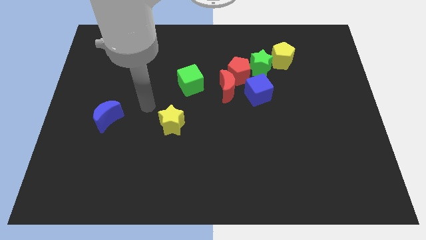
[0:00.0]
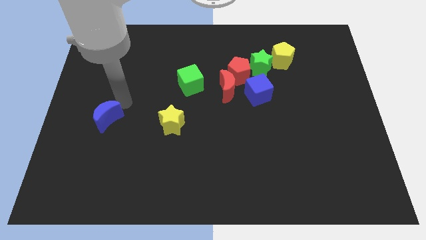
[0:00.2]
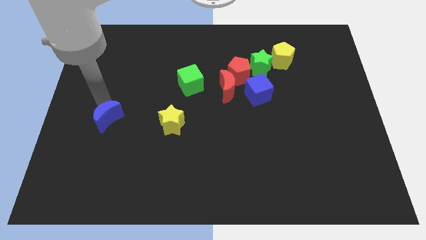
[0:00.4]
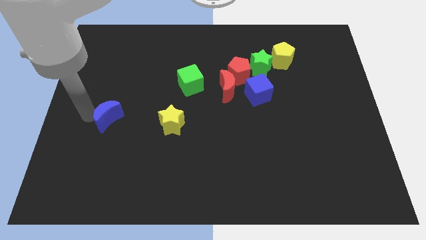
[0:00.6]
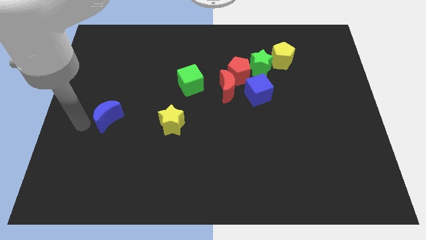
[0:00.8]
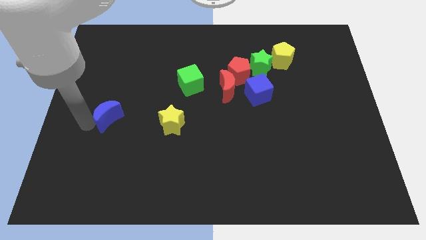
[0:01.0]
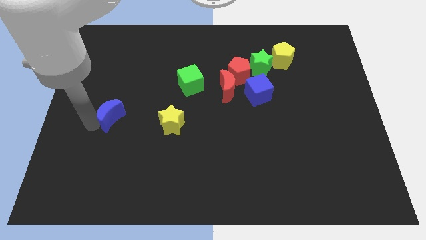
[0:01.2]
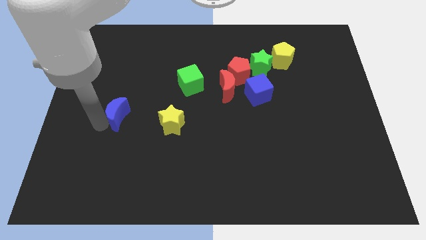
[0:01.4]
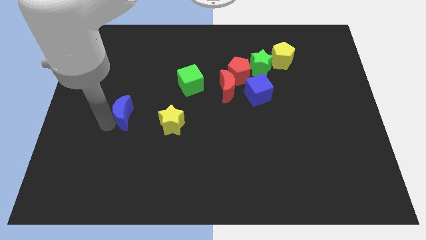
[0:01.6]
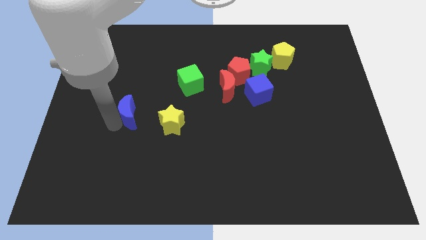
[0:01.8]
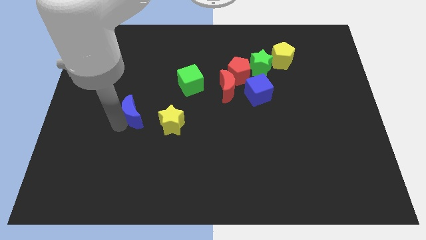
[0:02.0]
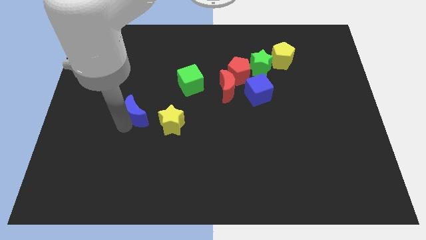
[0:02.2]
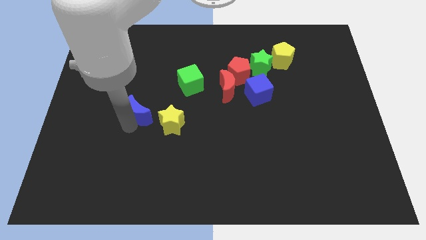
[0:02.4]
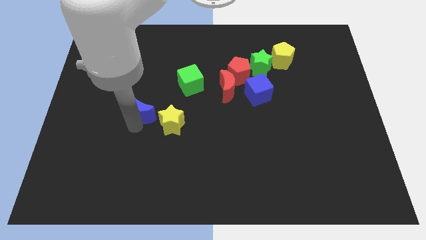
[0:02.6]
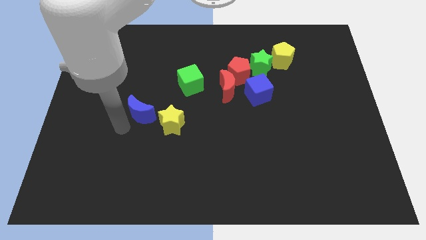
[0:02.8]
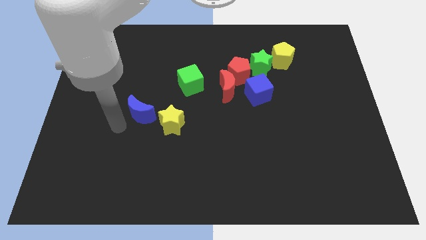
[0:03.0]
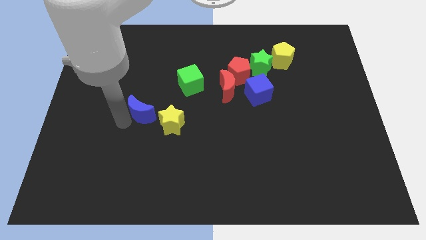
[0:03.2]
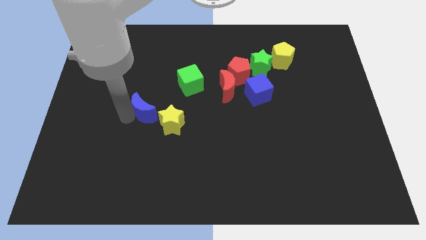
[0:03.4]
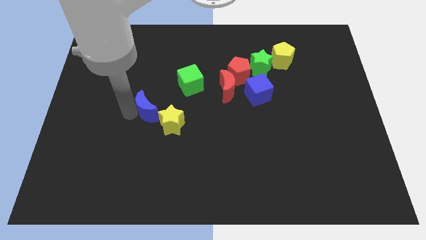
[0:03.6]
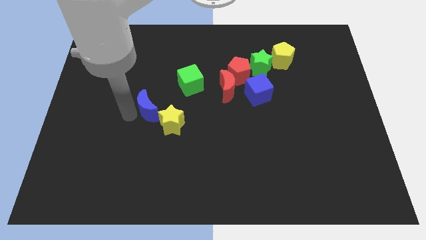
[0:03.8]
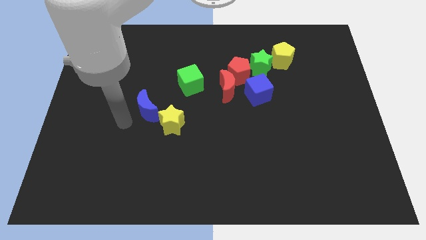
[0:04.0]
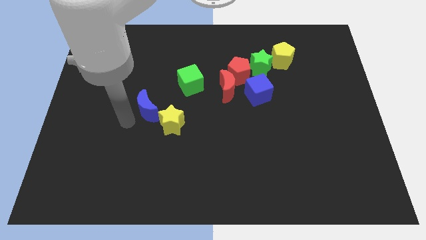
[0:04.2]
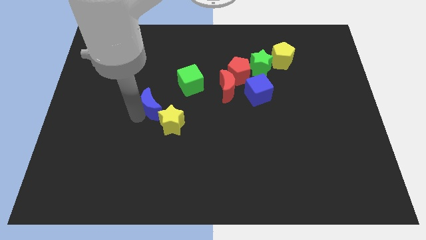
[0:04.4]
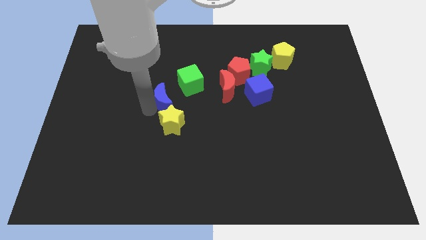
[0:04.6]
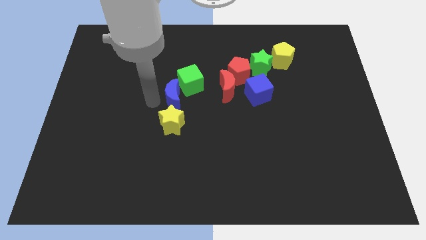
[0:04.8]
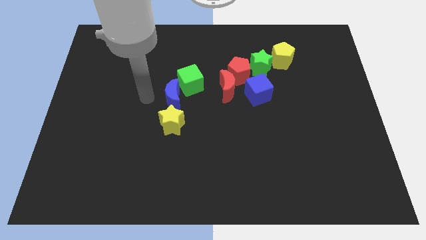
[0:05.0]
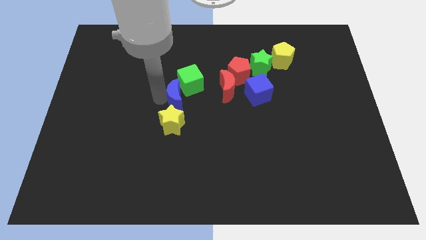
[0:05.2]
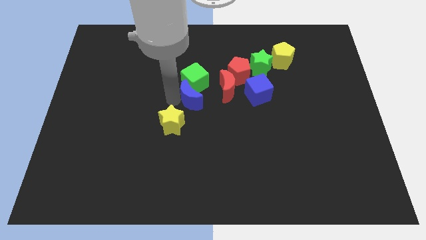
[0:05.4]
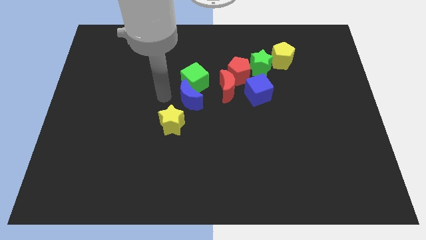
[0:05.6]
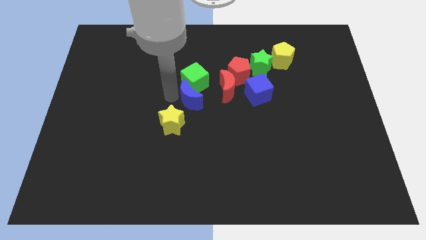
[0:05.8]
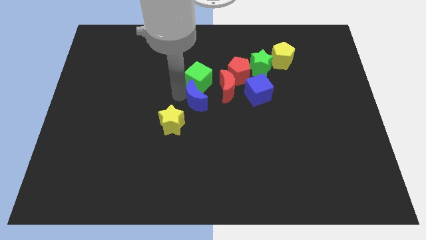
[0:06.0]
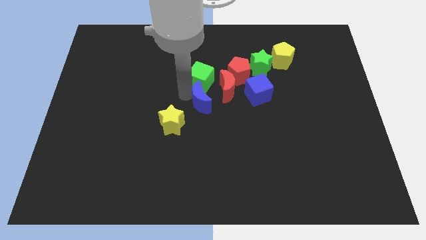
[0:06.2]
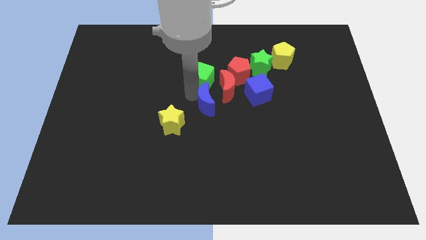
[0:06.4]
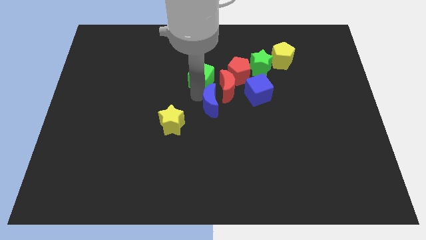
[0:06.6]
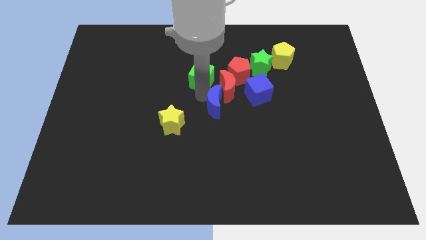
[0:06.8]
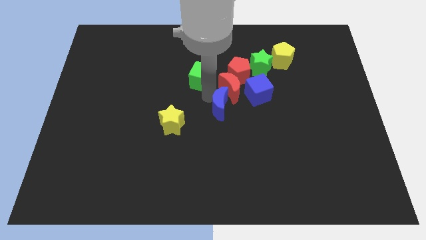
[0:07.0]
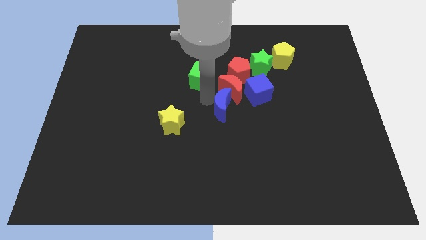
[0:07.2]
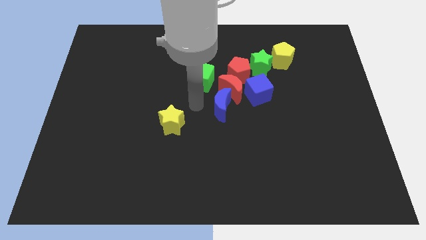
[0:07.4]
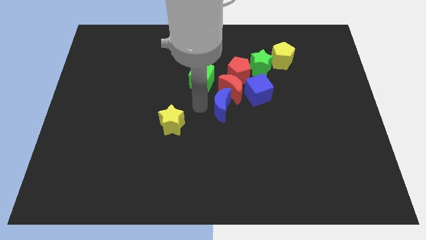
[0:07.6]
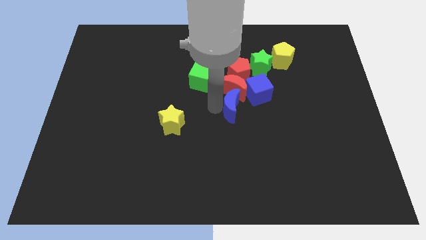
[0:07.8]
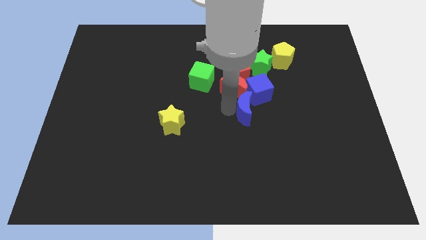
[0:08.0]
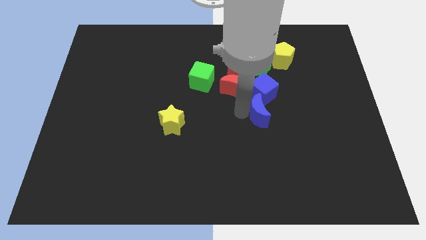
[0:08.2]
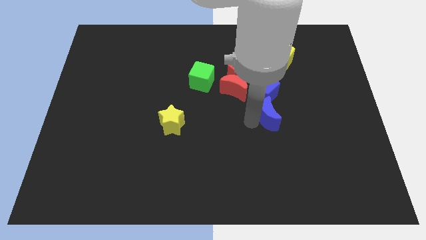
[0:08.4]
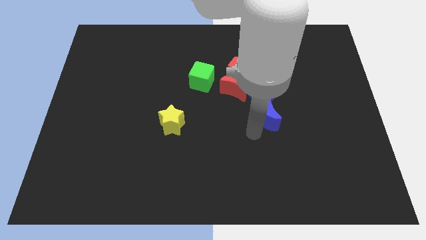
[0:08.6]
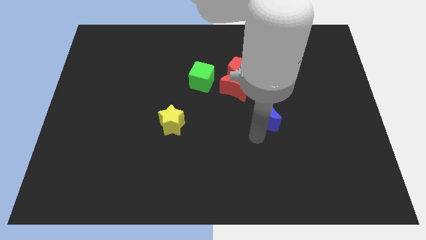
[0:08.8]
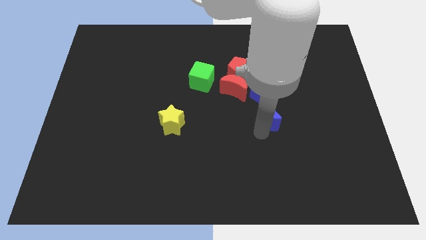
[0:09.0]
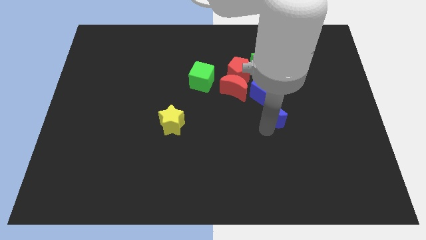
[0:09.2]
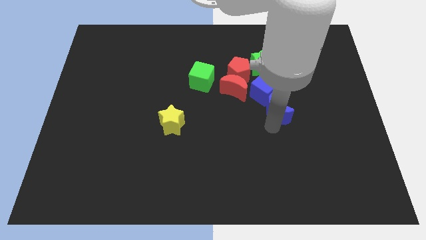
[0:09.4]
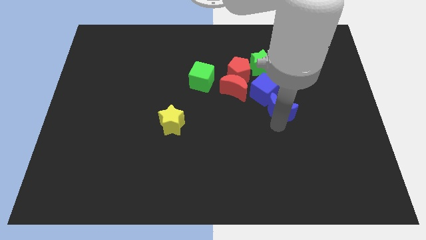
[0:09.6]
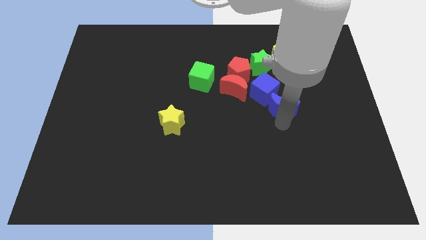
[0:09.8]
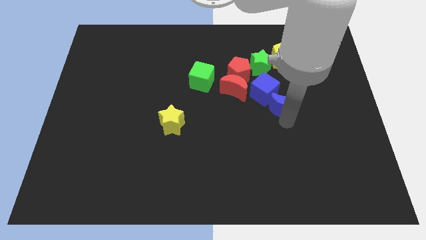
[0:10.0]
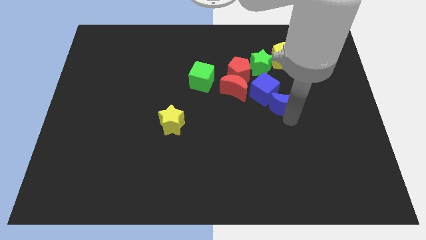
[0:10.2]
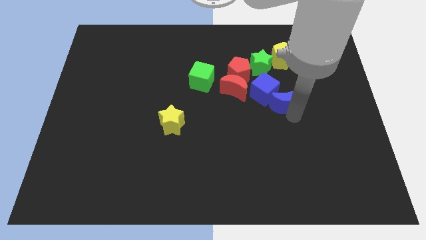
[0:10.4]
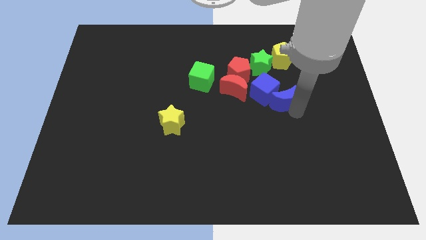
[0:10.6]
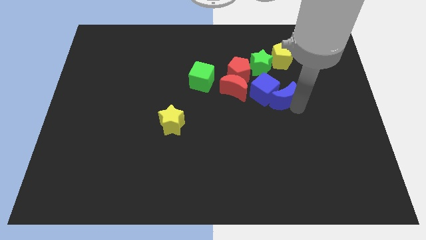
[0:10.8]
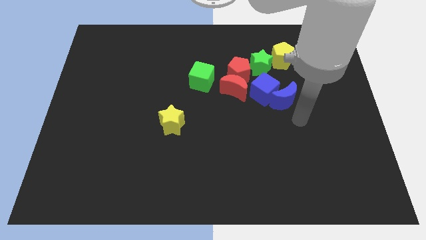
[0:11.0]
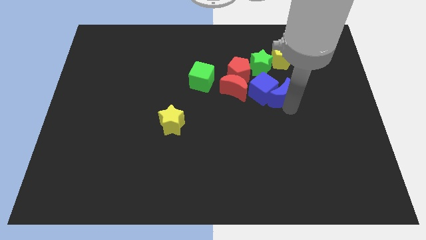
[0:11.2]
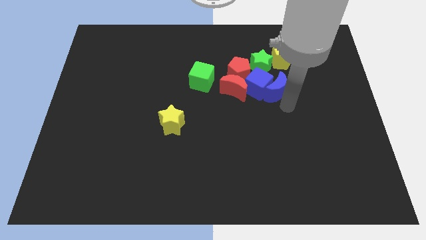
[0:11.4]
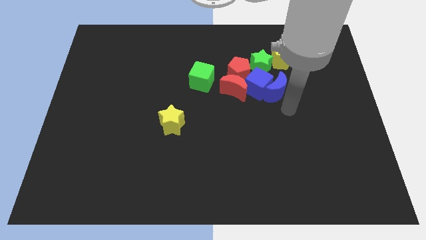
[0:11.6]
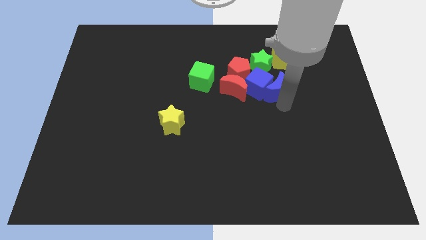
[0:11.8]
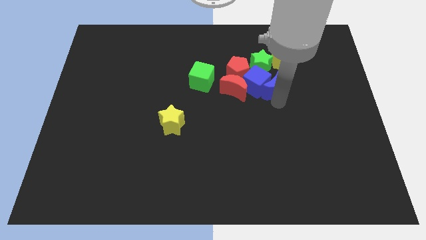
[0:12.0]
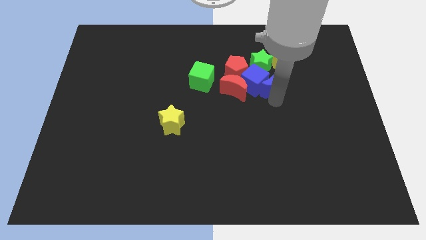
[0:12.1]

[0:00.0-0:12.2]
slide the blue moon to the bottom left side of the yellow pentagon

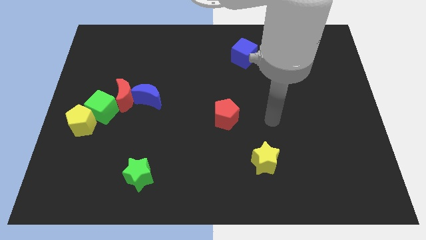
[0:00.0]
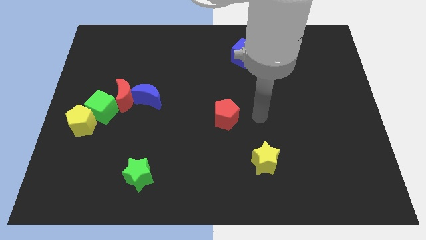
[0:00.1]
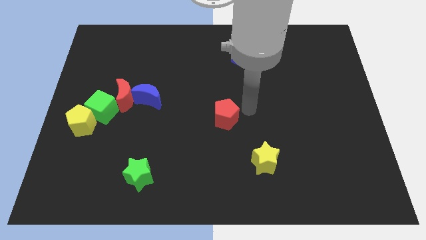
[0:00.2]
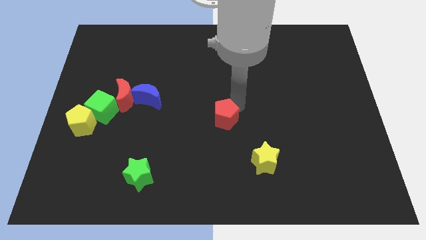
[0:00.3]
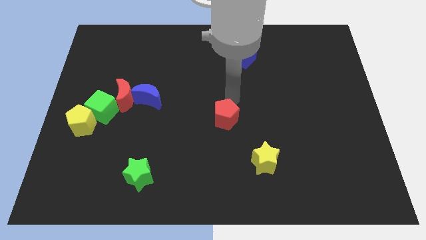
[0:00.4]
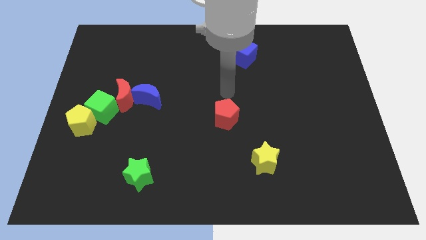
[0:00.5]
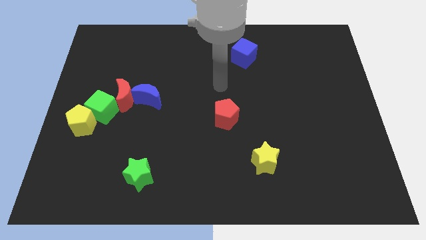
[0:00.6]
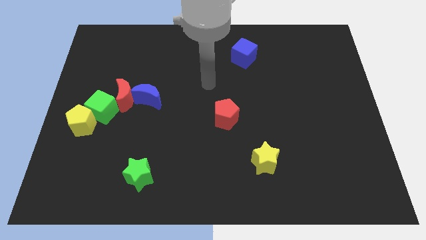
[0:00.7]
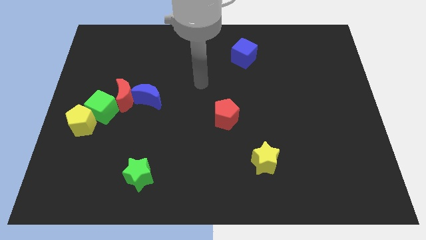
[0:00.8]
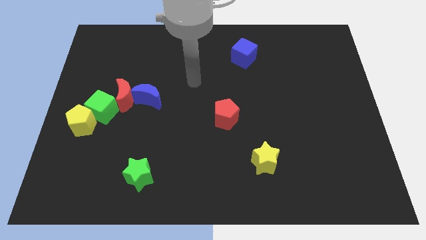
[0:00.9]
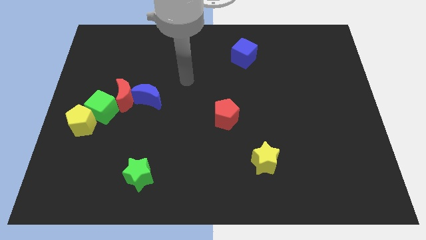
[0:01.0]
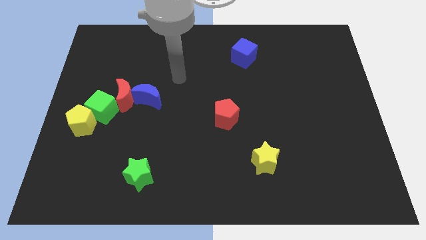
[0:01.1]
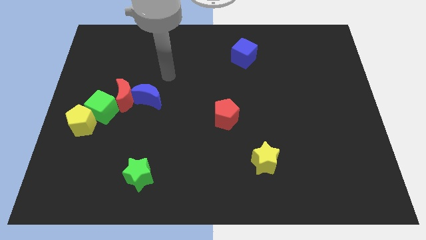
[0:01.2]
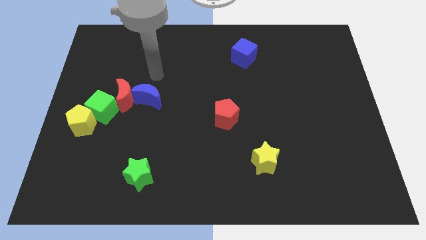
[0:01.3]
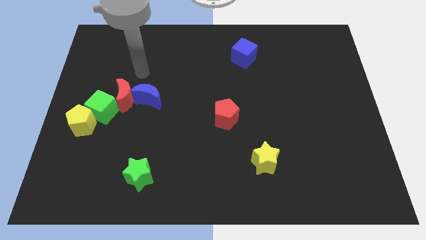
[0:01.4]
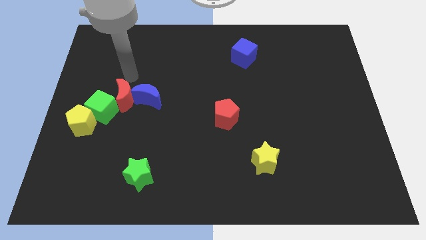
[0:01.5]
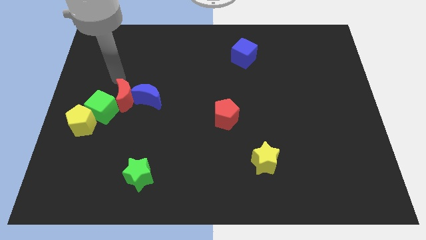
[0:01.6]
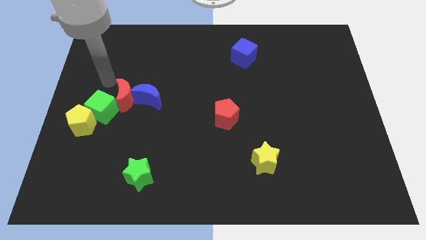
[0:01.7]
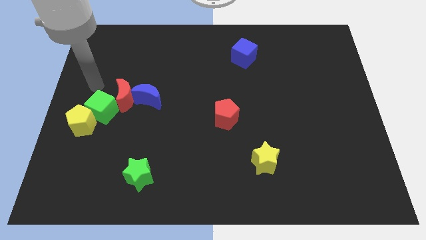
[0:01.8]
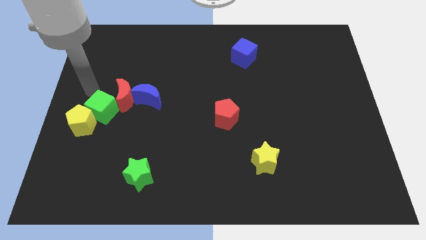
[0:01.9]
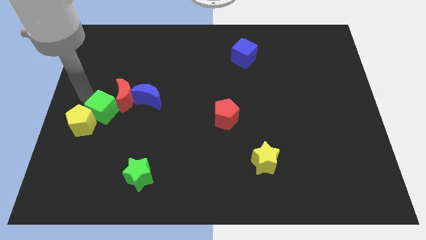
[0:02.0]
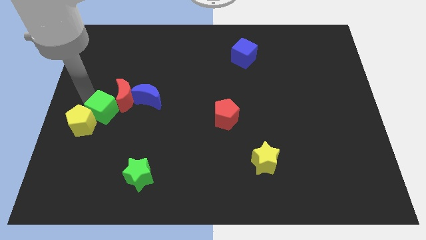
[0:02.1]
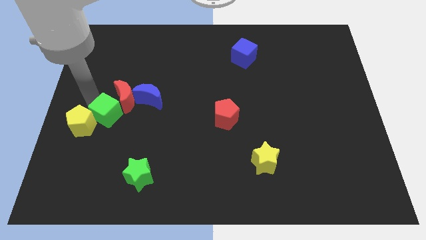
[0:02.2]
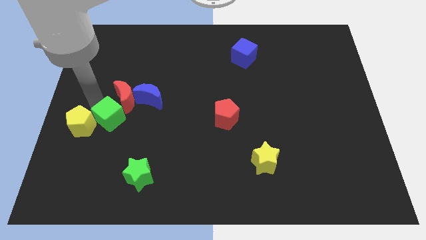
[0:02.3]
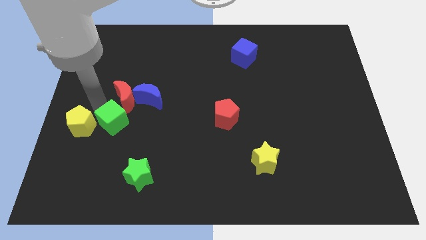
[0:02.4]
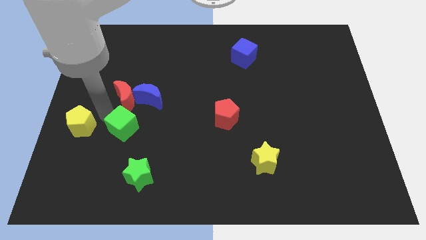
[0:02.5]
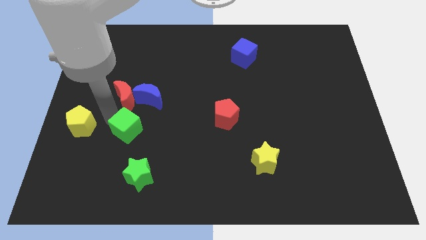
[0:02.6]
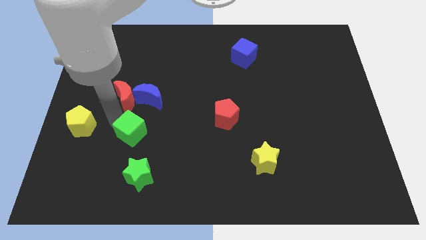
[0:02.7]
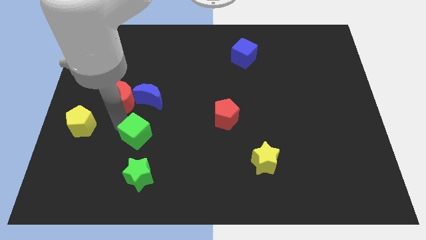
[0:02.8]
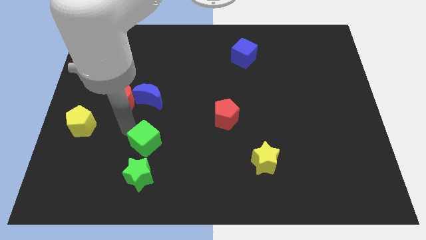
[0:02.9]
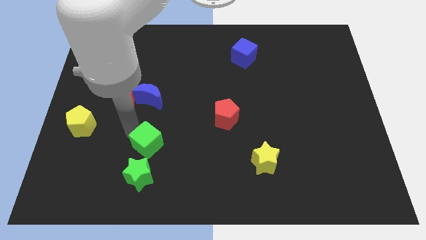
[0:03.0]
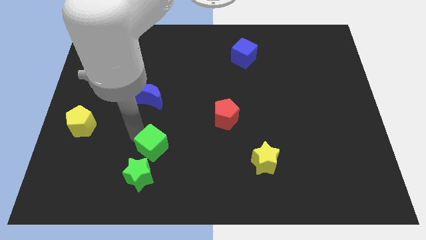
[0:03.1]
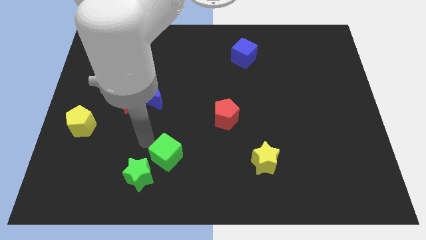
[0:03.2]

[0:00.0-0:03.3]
move the green cube right of the green star
